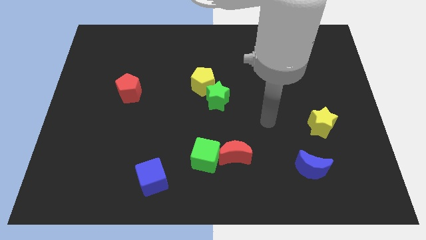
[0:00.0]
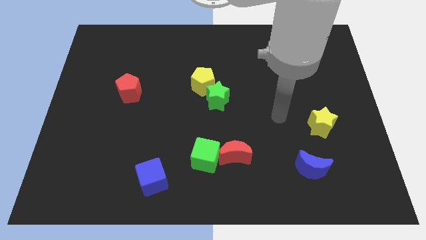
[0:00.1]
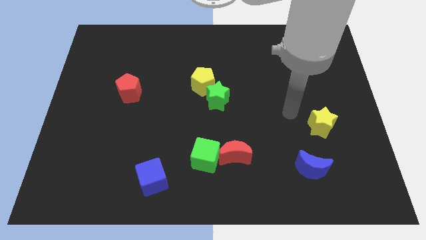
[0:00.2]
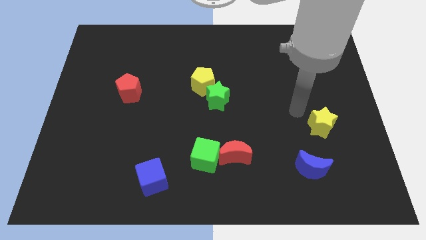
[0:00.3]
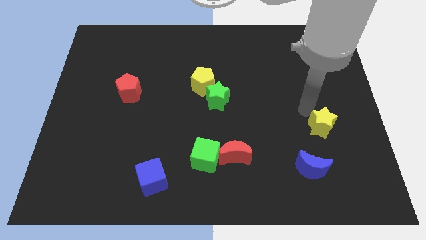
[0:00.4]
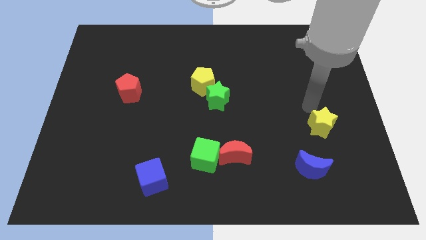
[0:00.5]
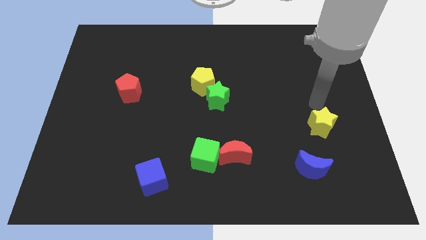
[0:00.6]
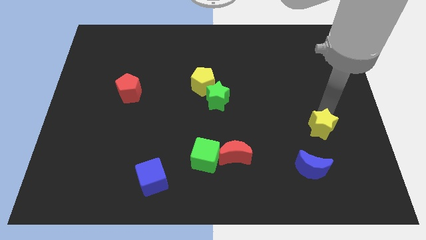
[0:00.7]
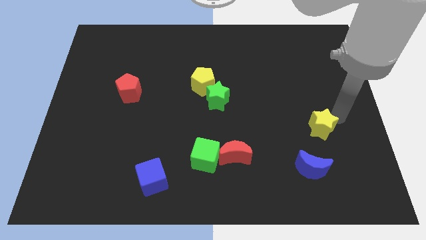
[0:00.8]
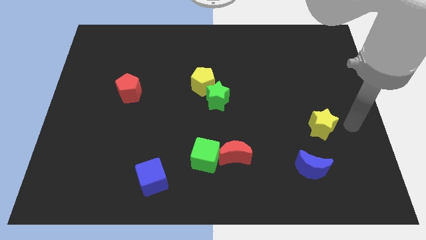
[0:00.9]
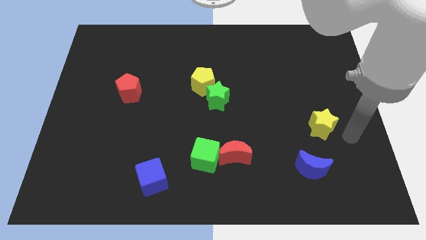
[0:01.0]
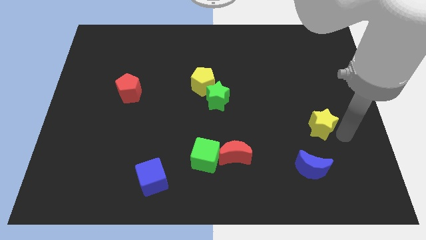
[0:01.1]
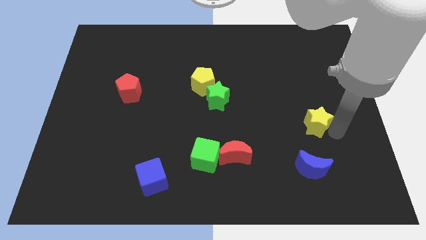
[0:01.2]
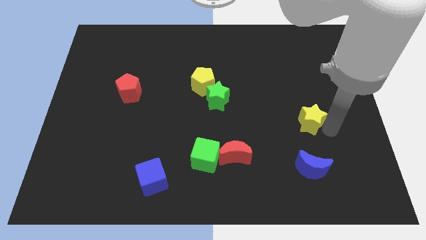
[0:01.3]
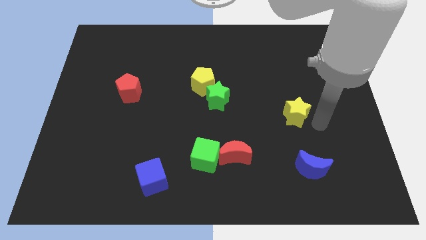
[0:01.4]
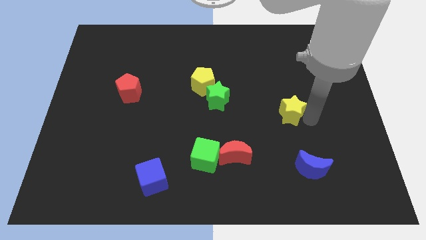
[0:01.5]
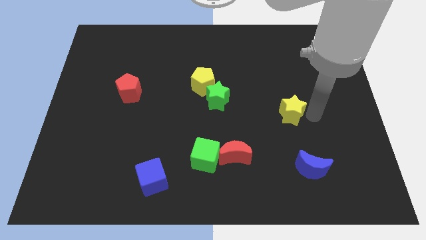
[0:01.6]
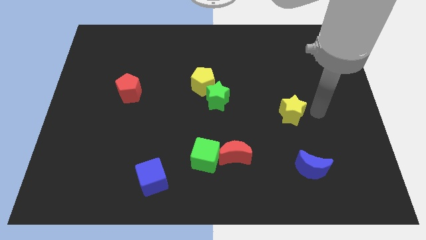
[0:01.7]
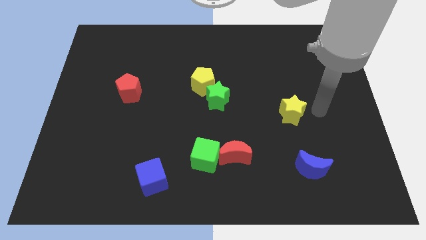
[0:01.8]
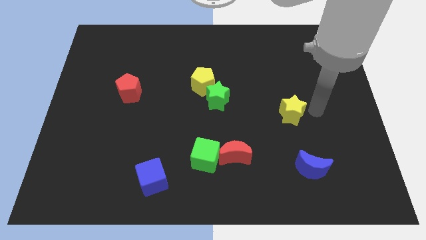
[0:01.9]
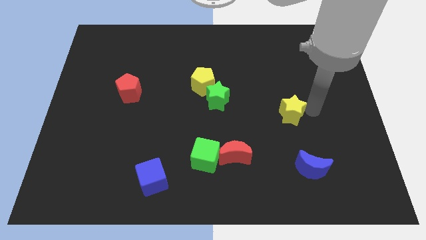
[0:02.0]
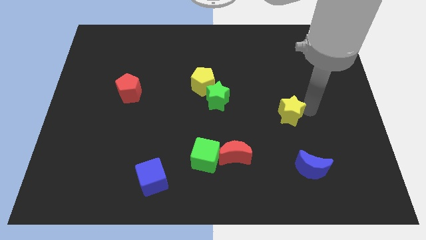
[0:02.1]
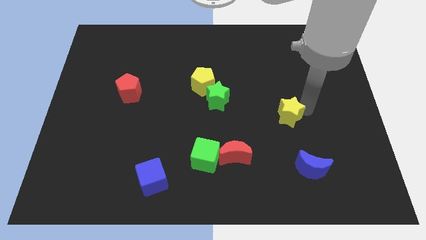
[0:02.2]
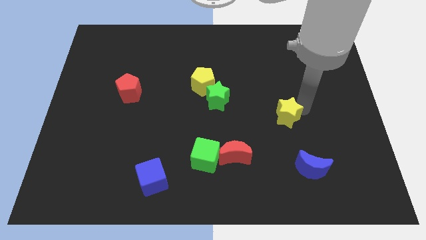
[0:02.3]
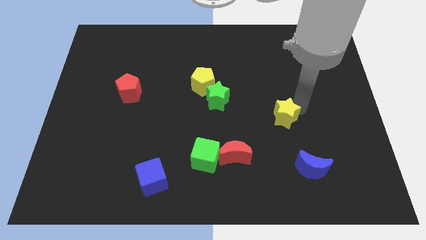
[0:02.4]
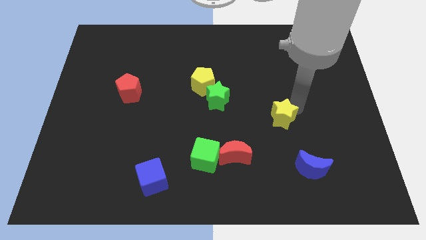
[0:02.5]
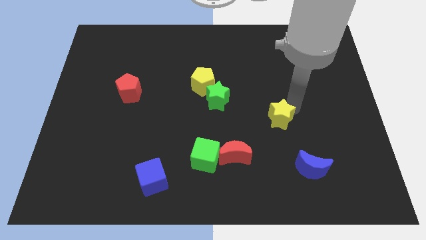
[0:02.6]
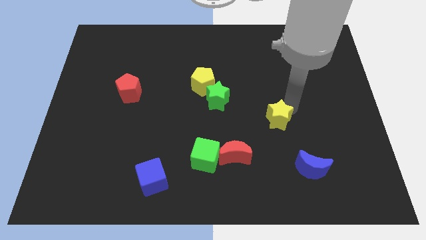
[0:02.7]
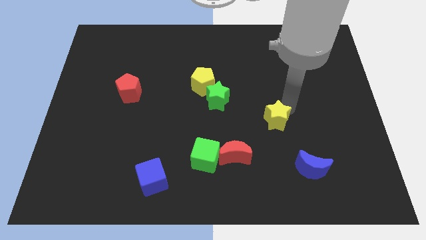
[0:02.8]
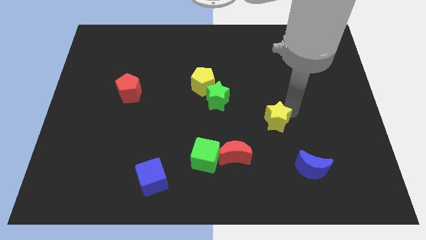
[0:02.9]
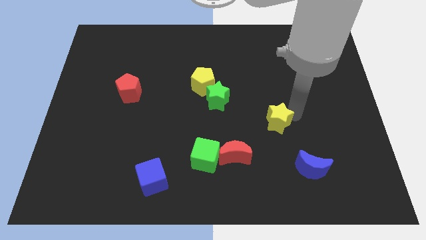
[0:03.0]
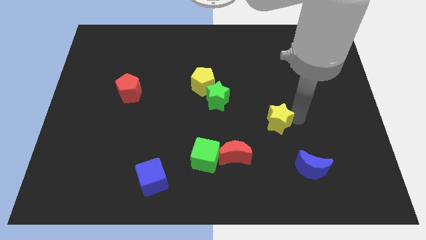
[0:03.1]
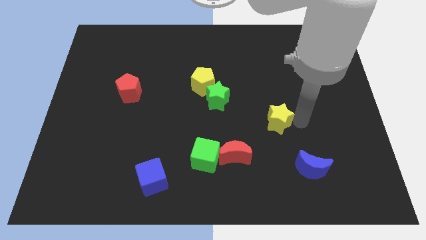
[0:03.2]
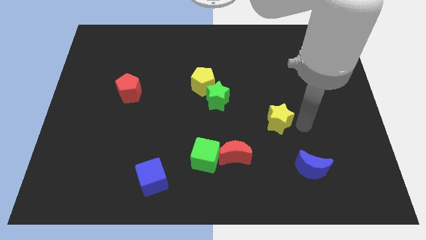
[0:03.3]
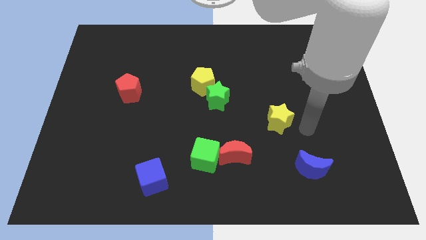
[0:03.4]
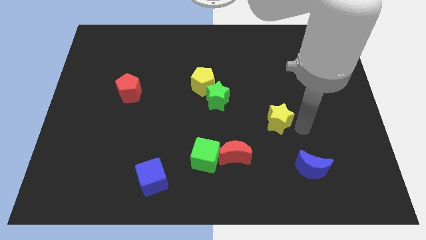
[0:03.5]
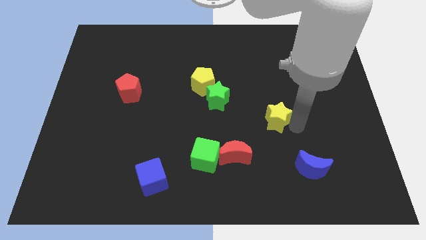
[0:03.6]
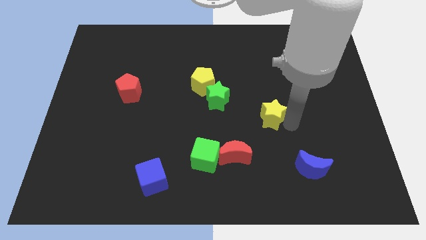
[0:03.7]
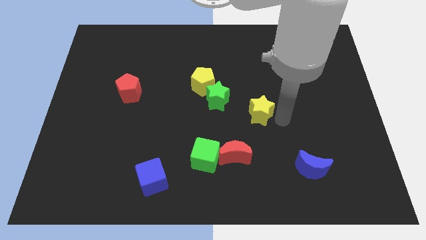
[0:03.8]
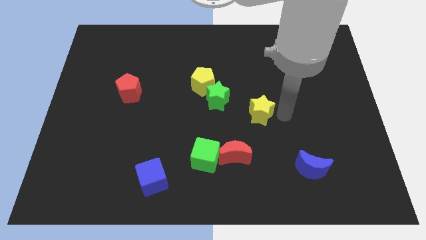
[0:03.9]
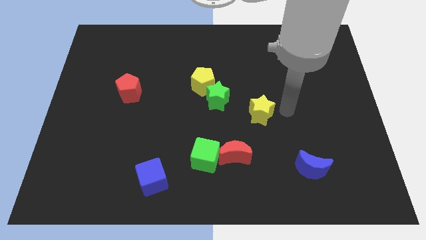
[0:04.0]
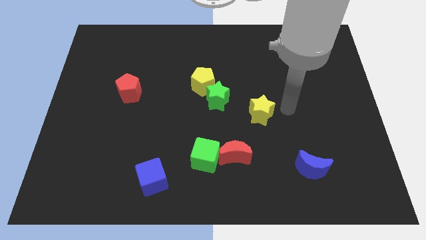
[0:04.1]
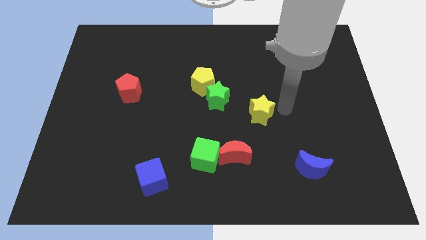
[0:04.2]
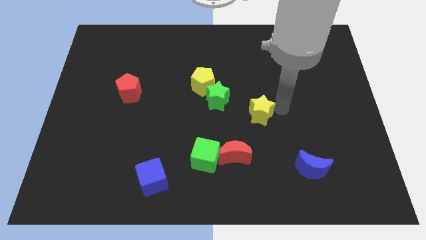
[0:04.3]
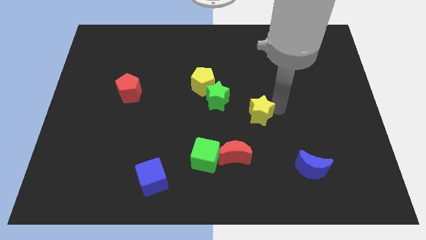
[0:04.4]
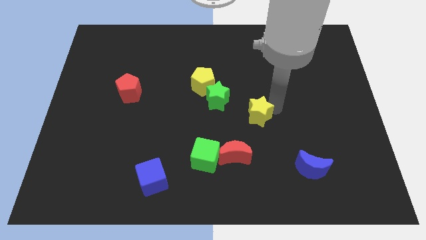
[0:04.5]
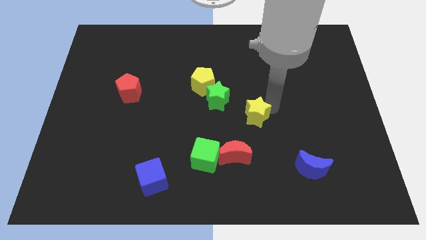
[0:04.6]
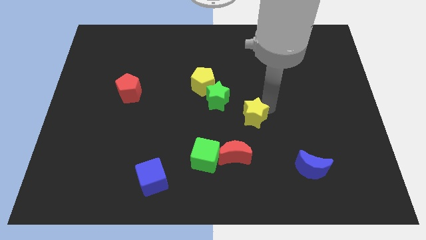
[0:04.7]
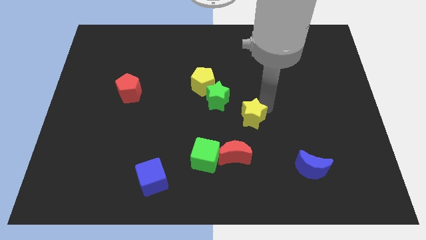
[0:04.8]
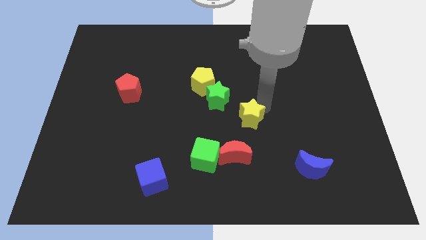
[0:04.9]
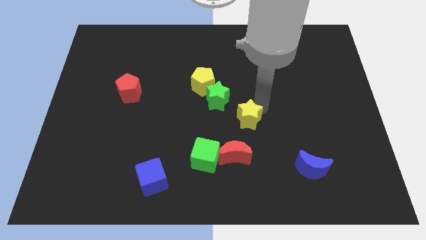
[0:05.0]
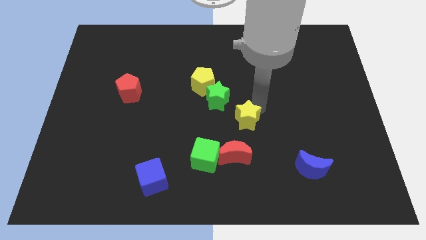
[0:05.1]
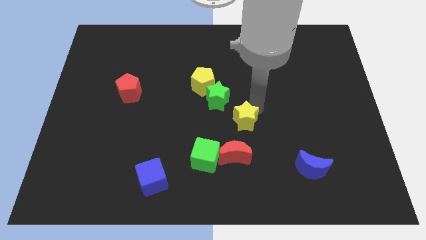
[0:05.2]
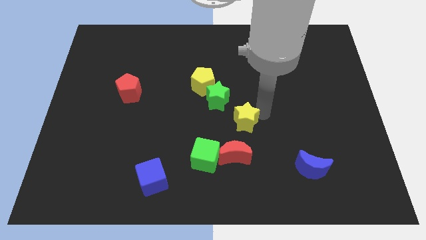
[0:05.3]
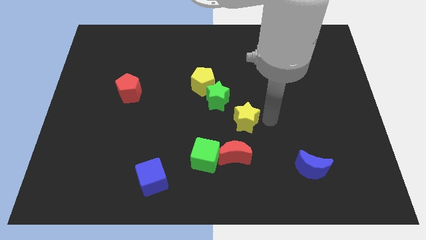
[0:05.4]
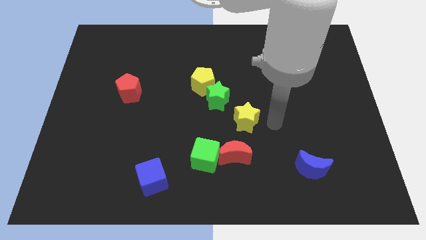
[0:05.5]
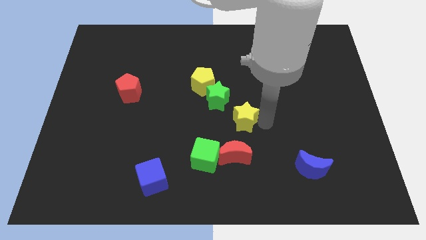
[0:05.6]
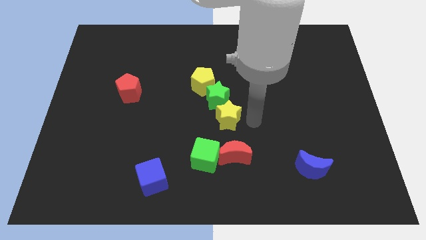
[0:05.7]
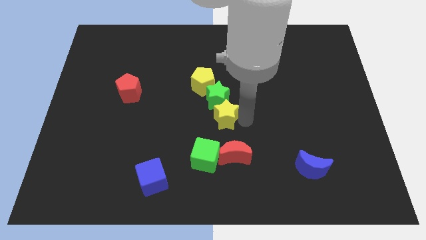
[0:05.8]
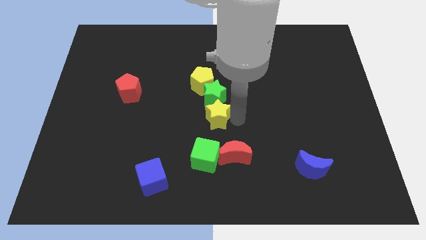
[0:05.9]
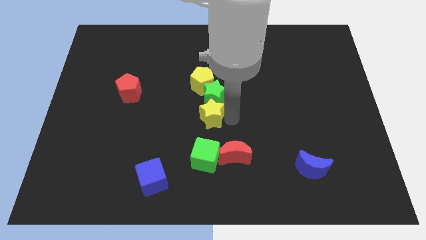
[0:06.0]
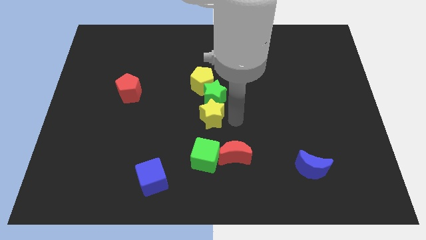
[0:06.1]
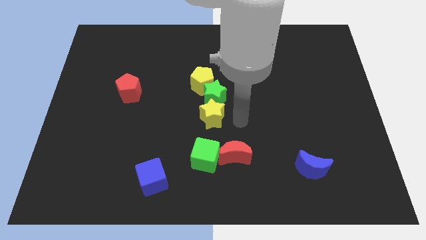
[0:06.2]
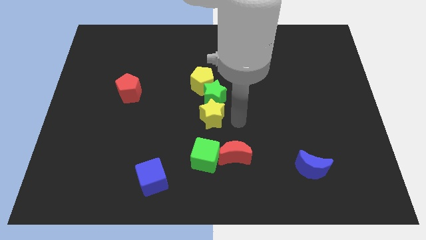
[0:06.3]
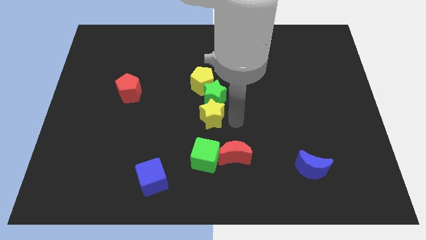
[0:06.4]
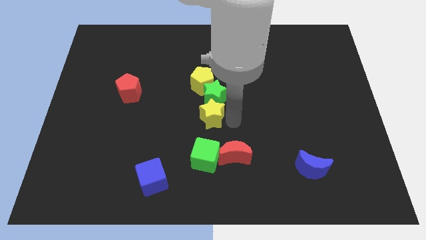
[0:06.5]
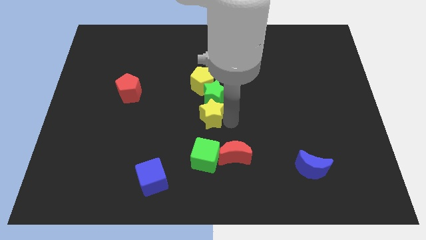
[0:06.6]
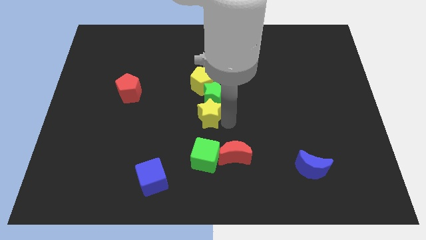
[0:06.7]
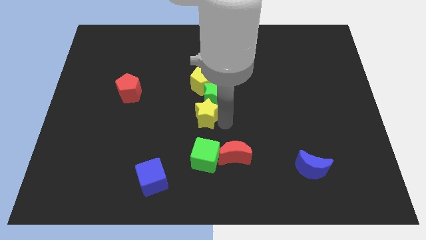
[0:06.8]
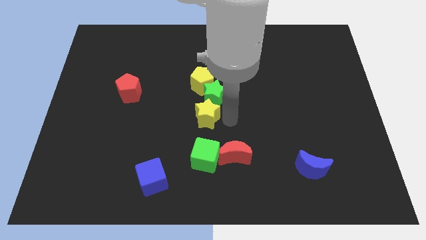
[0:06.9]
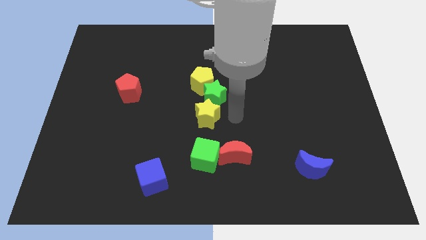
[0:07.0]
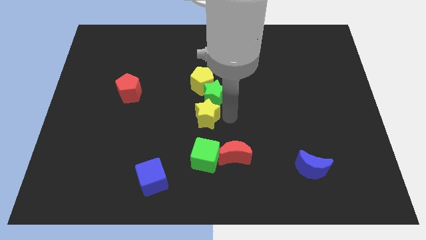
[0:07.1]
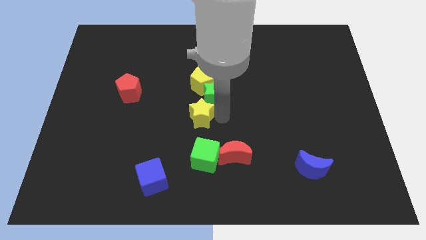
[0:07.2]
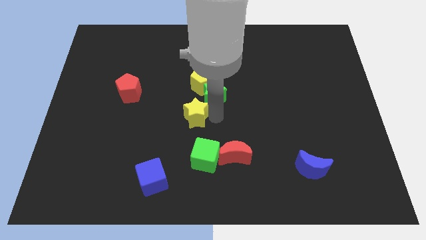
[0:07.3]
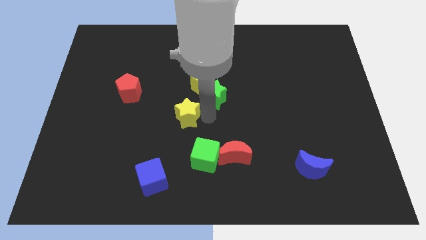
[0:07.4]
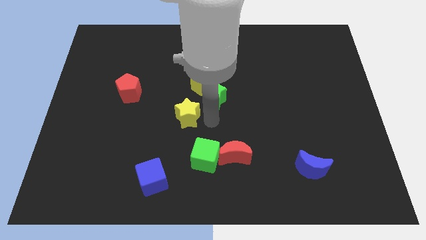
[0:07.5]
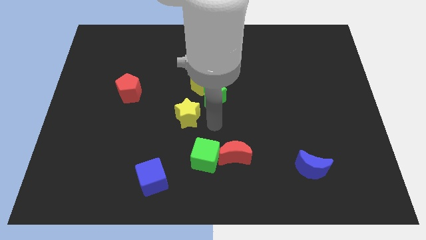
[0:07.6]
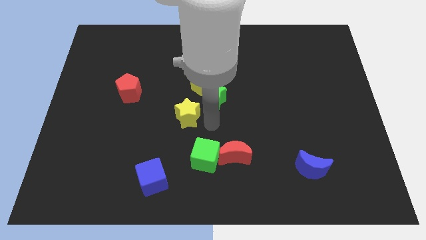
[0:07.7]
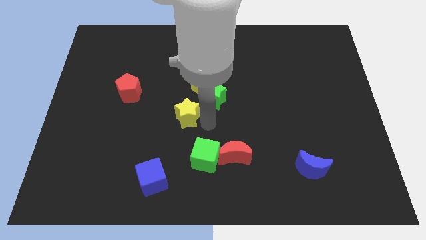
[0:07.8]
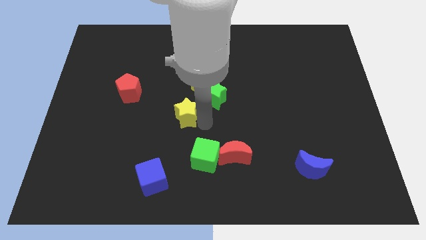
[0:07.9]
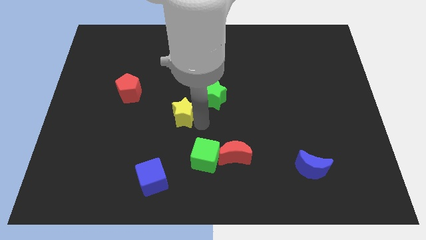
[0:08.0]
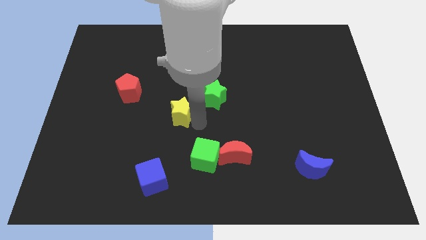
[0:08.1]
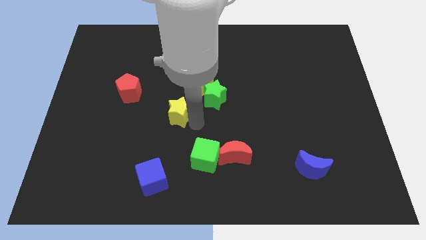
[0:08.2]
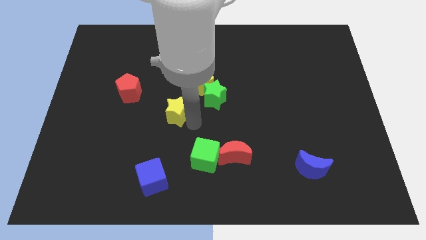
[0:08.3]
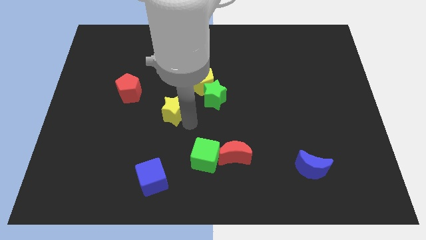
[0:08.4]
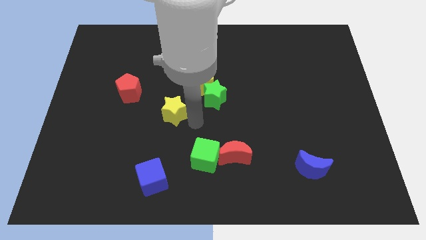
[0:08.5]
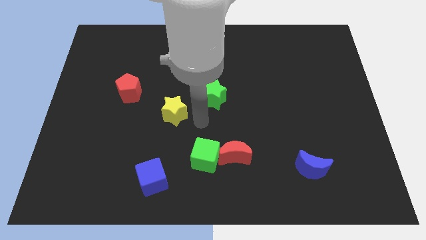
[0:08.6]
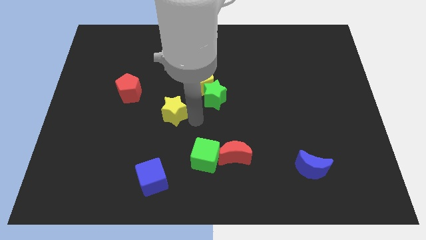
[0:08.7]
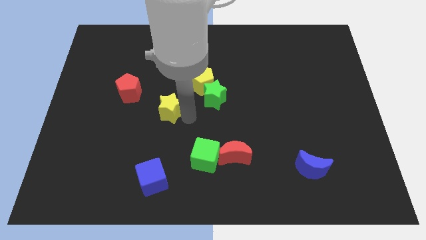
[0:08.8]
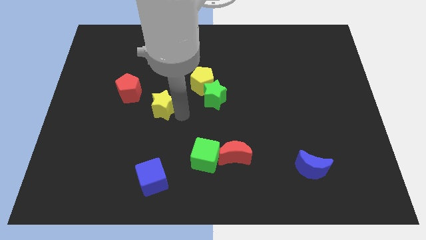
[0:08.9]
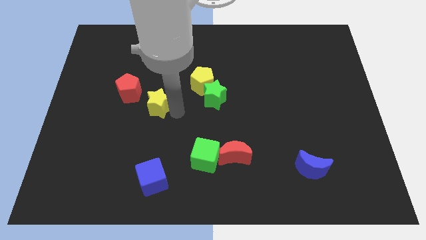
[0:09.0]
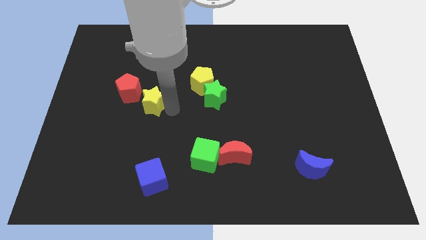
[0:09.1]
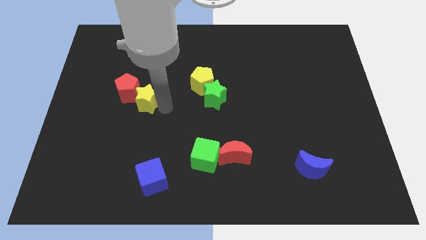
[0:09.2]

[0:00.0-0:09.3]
put the yellow star next to the red pentagon
